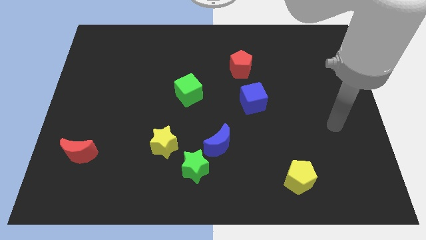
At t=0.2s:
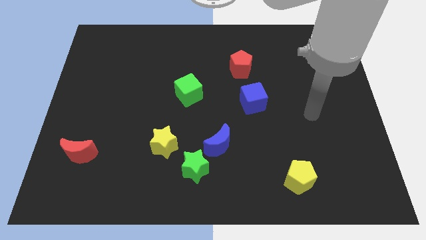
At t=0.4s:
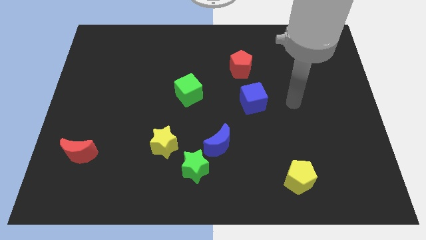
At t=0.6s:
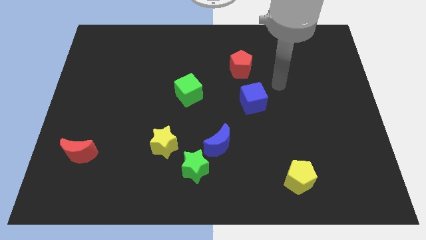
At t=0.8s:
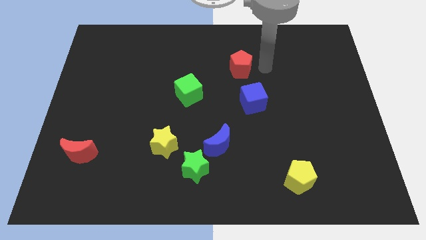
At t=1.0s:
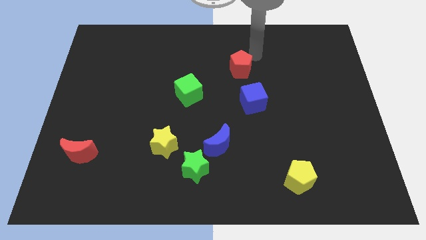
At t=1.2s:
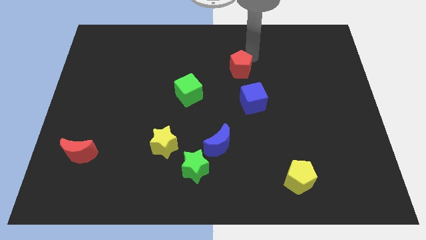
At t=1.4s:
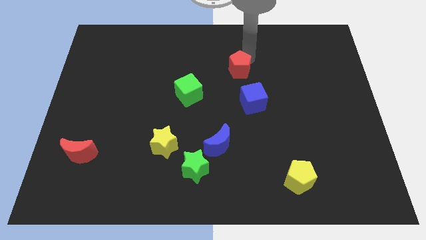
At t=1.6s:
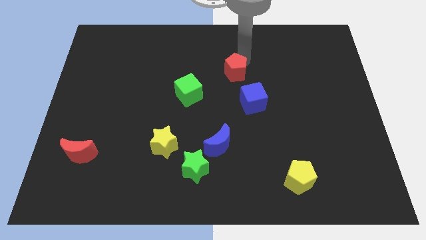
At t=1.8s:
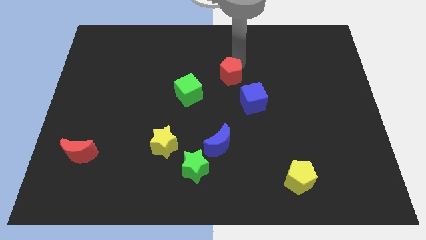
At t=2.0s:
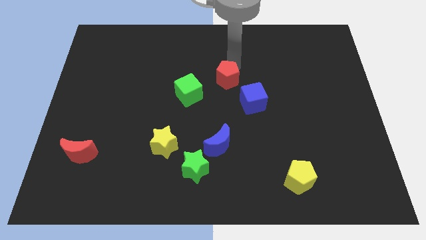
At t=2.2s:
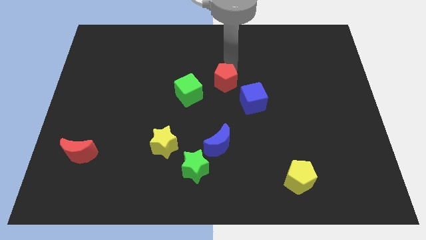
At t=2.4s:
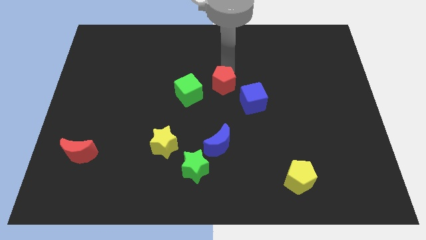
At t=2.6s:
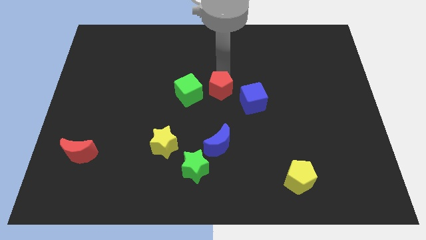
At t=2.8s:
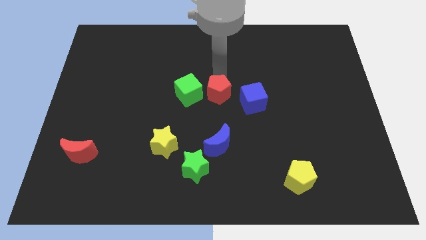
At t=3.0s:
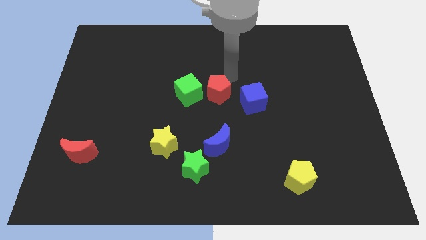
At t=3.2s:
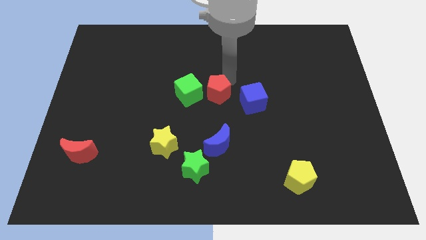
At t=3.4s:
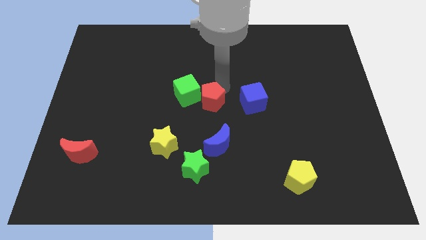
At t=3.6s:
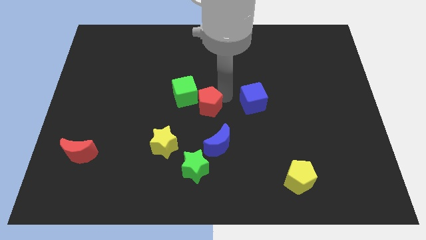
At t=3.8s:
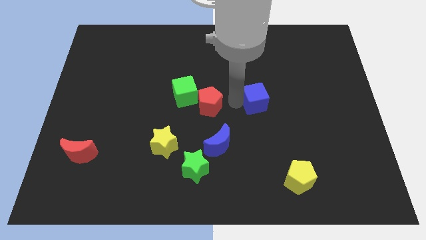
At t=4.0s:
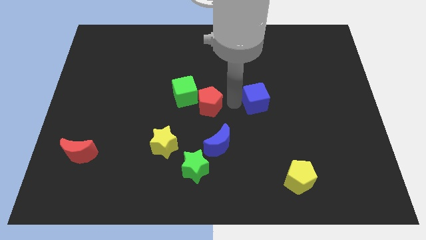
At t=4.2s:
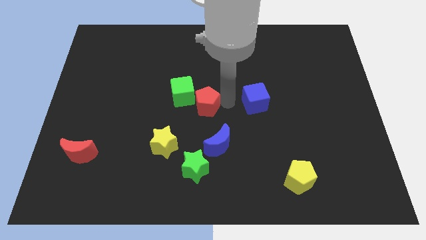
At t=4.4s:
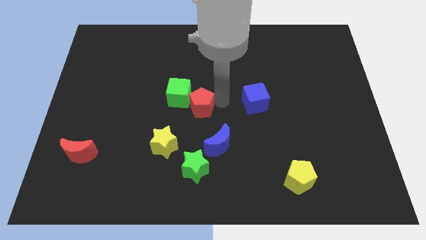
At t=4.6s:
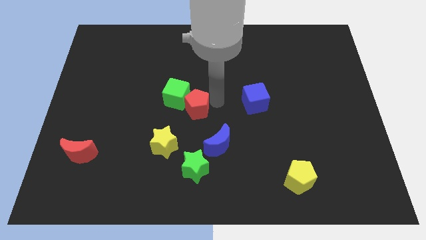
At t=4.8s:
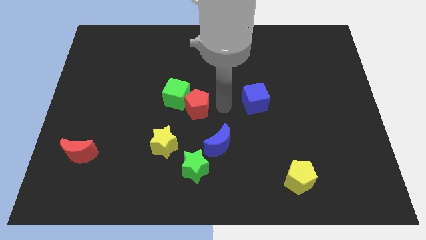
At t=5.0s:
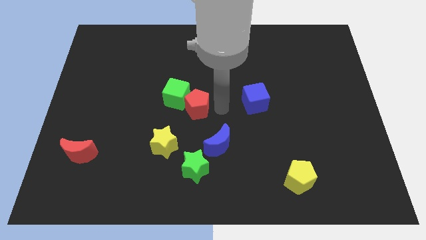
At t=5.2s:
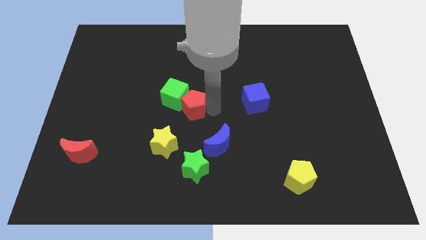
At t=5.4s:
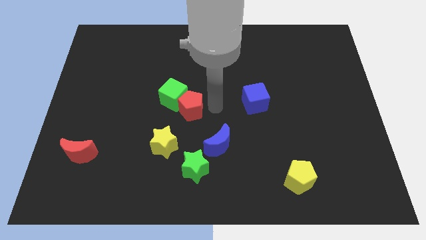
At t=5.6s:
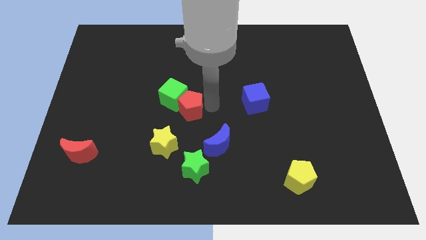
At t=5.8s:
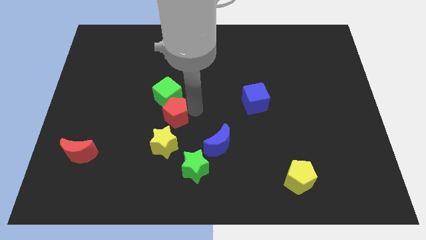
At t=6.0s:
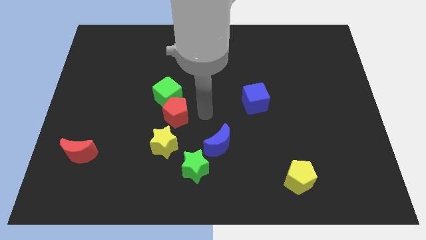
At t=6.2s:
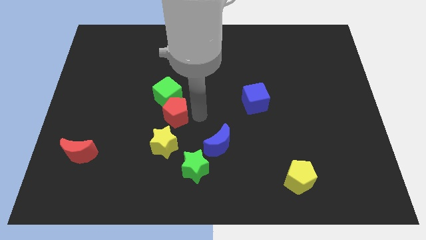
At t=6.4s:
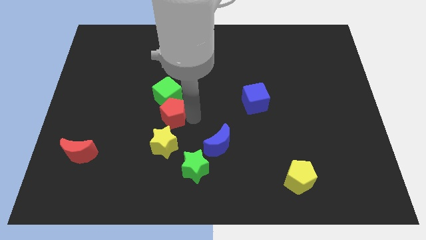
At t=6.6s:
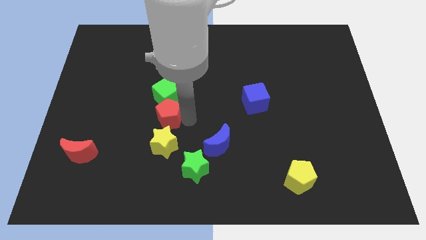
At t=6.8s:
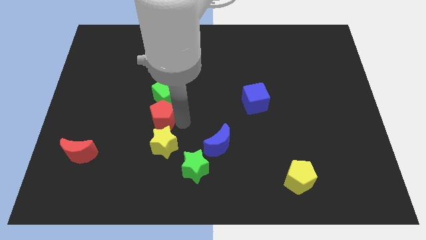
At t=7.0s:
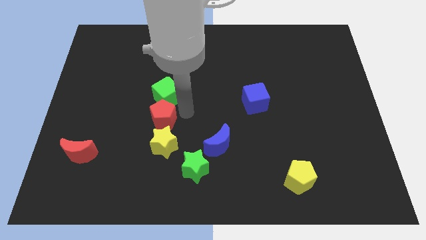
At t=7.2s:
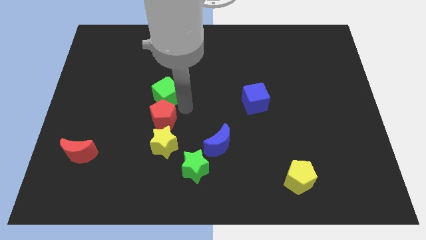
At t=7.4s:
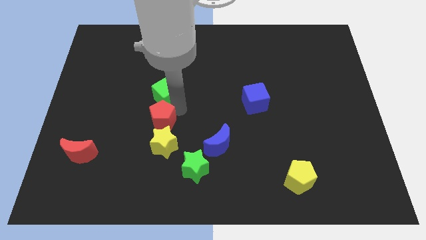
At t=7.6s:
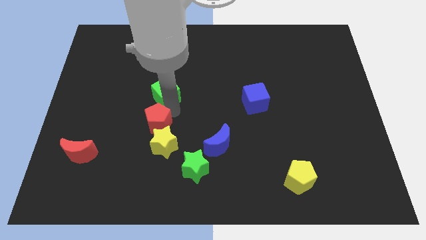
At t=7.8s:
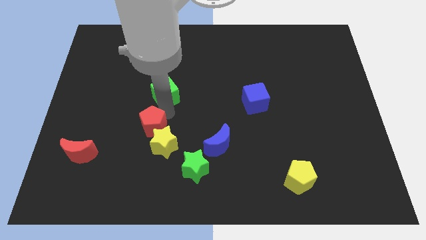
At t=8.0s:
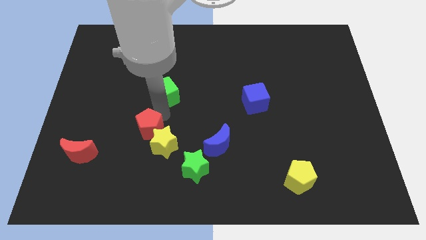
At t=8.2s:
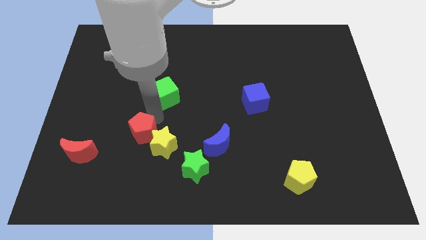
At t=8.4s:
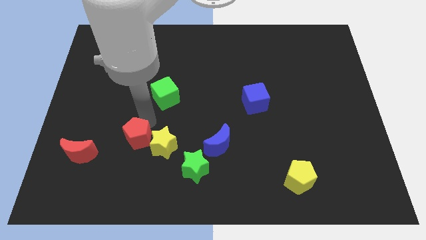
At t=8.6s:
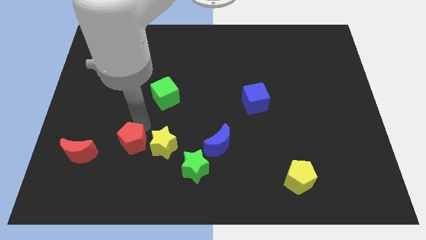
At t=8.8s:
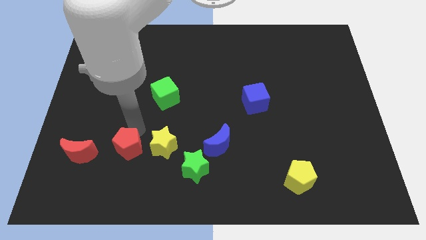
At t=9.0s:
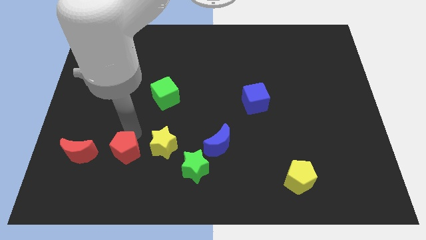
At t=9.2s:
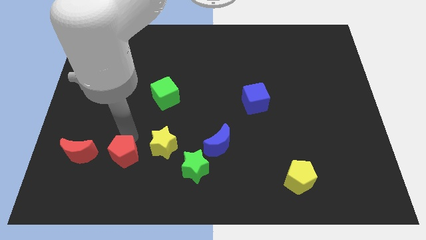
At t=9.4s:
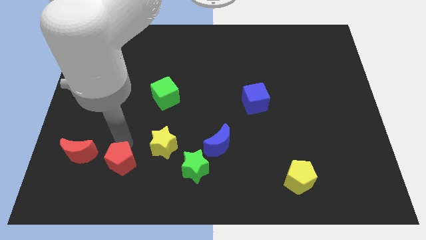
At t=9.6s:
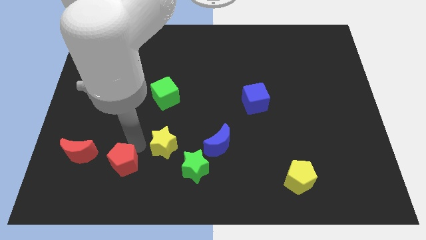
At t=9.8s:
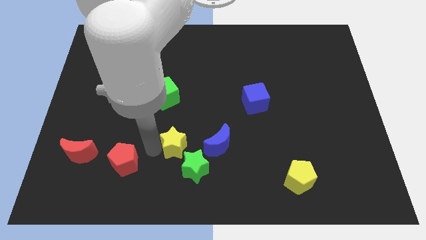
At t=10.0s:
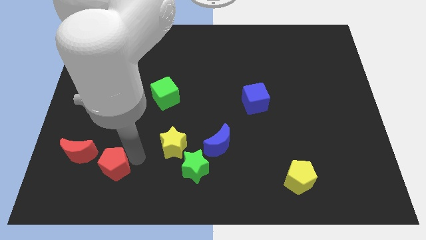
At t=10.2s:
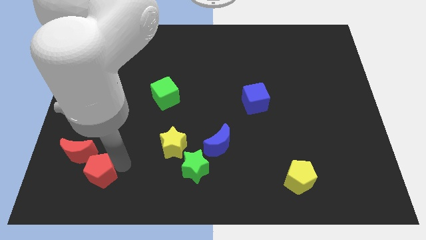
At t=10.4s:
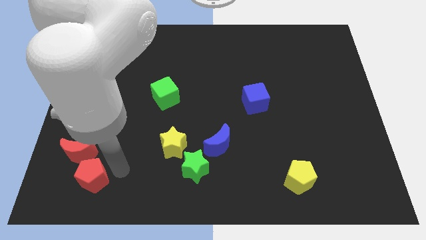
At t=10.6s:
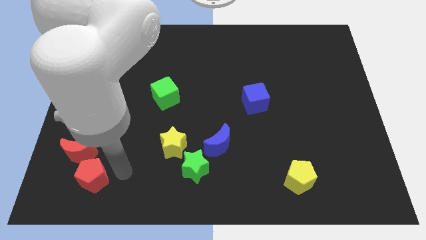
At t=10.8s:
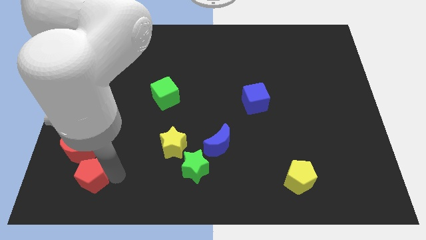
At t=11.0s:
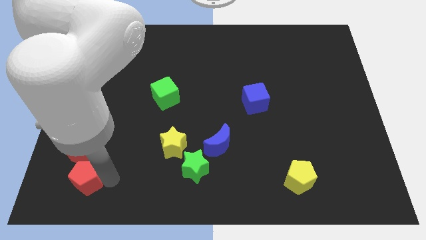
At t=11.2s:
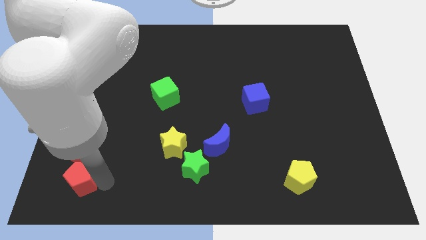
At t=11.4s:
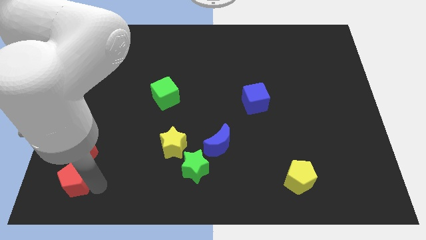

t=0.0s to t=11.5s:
slide the red pentagon to the bottom left
